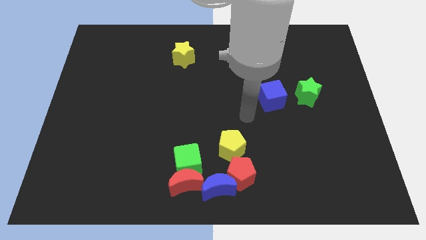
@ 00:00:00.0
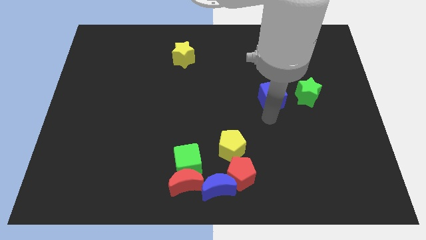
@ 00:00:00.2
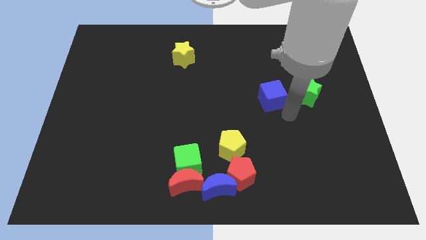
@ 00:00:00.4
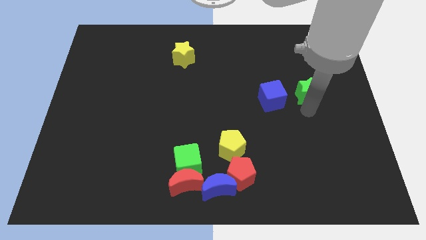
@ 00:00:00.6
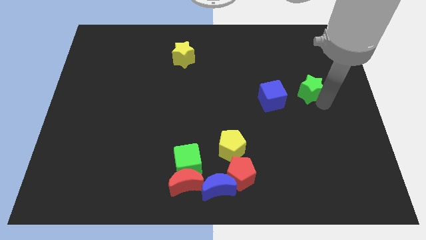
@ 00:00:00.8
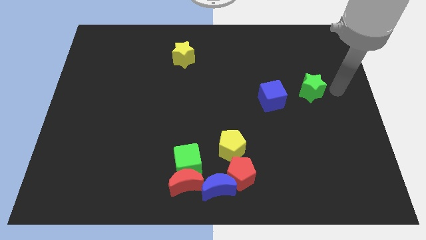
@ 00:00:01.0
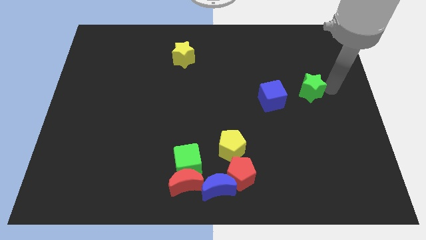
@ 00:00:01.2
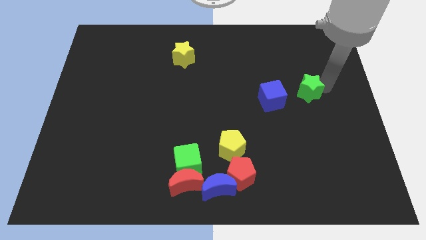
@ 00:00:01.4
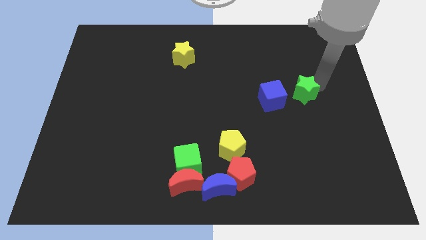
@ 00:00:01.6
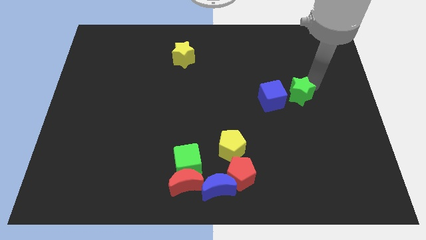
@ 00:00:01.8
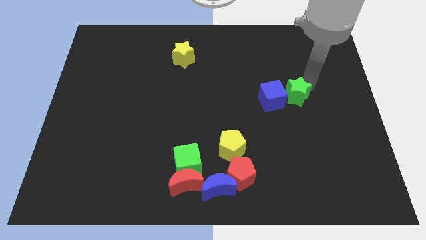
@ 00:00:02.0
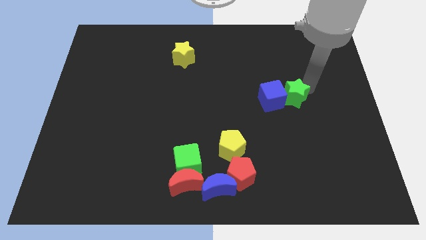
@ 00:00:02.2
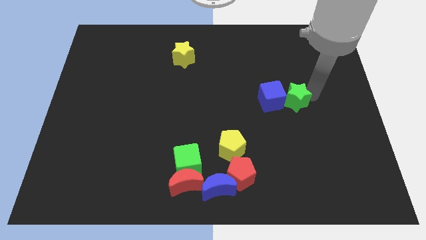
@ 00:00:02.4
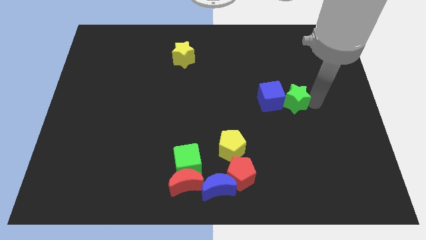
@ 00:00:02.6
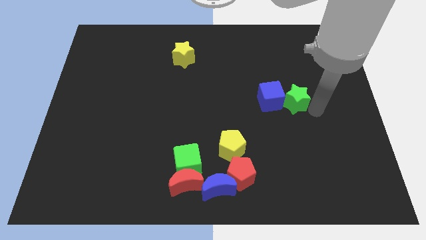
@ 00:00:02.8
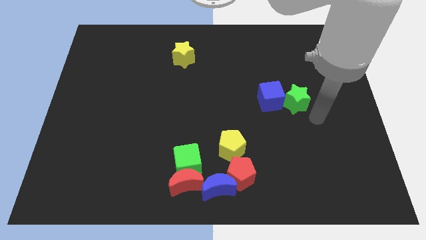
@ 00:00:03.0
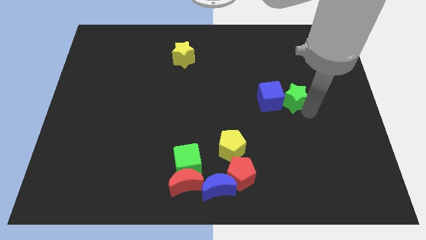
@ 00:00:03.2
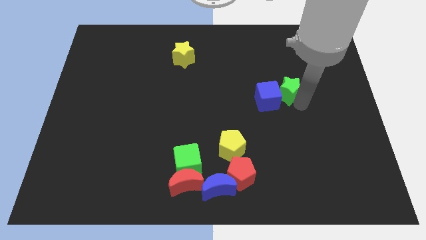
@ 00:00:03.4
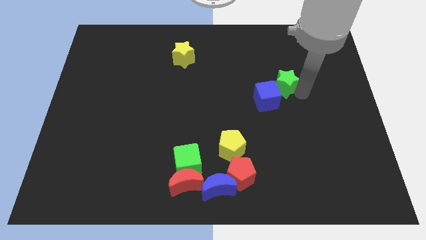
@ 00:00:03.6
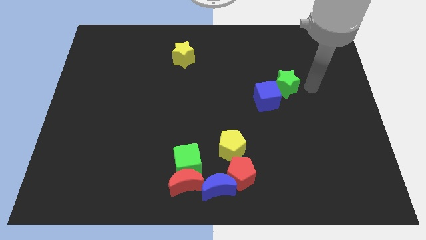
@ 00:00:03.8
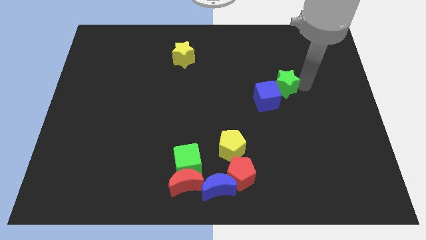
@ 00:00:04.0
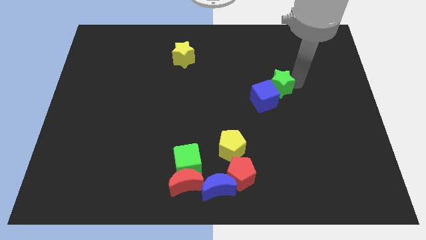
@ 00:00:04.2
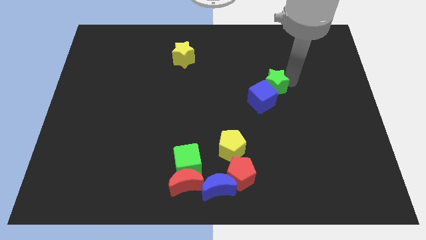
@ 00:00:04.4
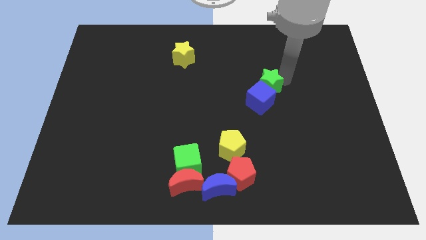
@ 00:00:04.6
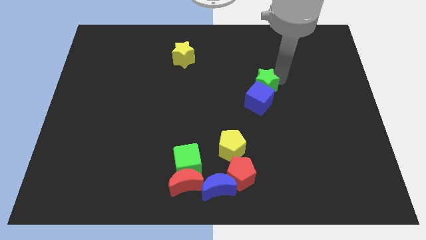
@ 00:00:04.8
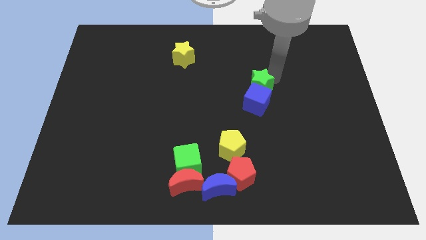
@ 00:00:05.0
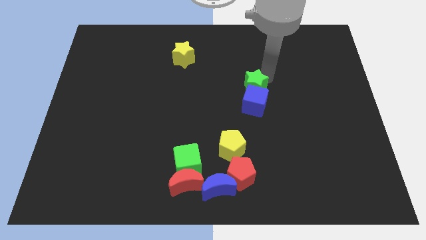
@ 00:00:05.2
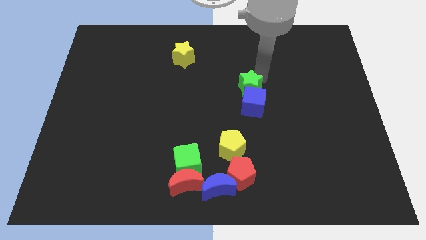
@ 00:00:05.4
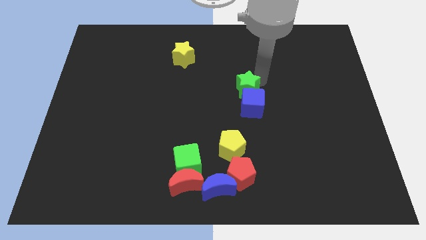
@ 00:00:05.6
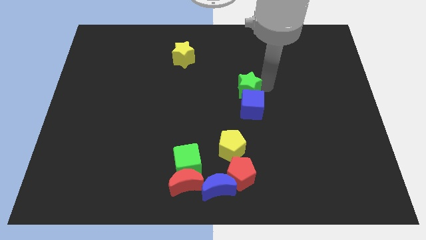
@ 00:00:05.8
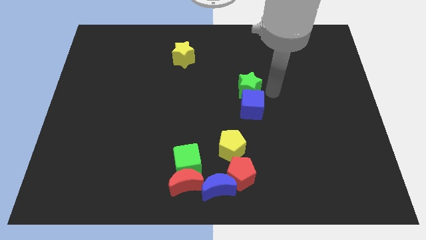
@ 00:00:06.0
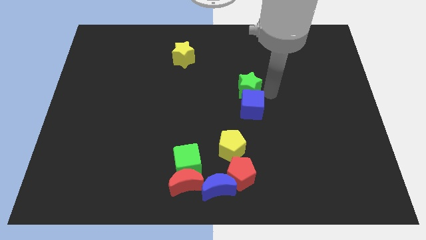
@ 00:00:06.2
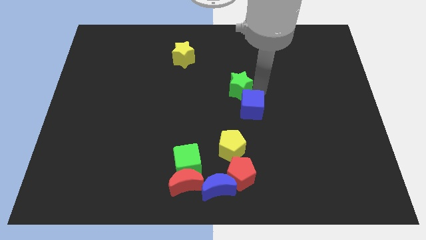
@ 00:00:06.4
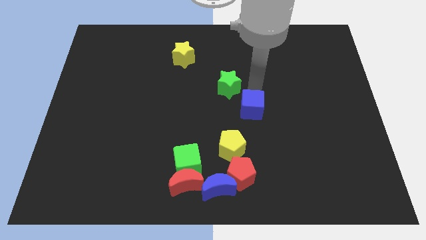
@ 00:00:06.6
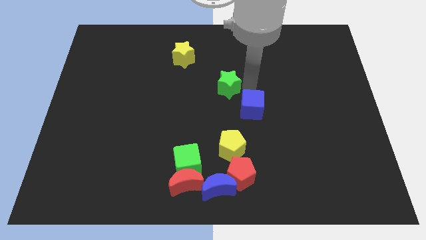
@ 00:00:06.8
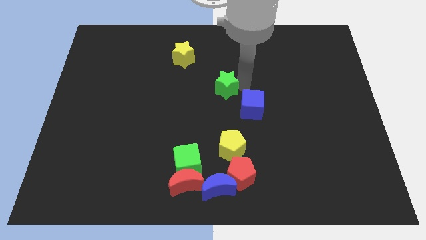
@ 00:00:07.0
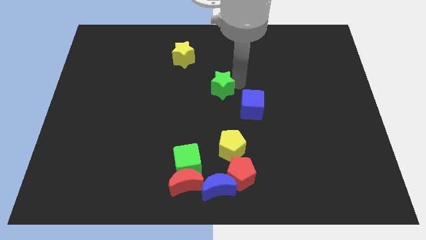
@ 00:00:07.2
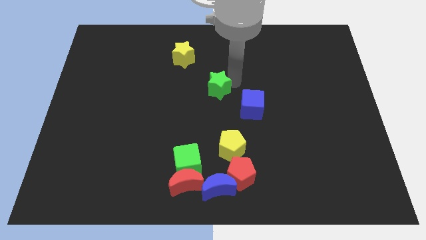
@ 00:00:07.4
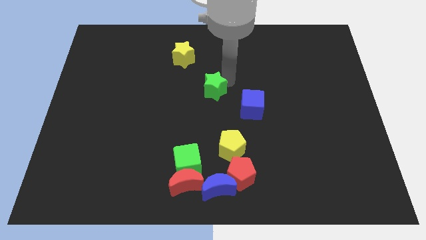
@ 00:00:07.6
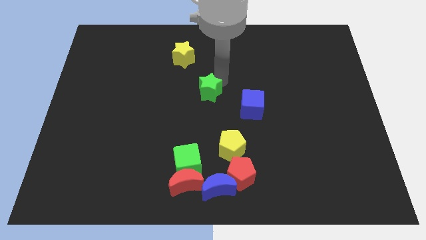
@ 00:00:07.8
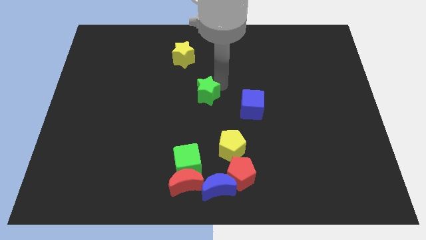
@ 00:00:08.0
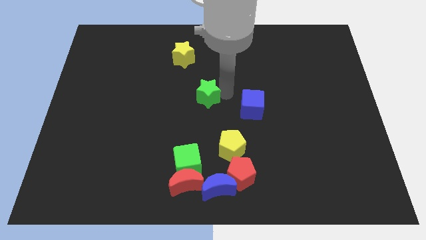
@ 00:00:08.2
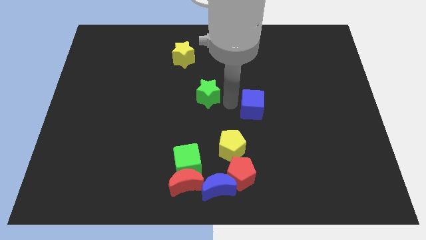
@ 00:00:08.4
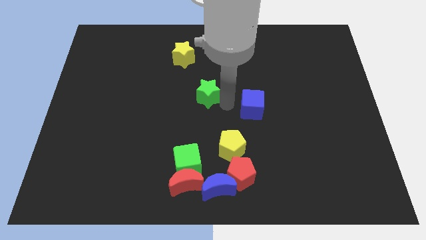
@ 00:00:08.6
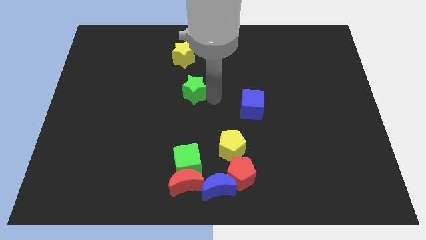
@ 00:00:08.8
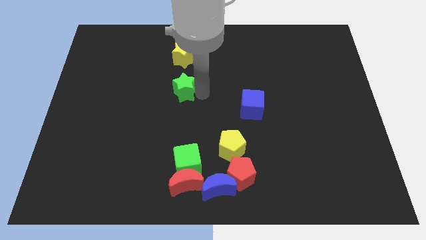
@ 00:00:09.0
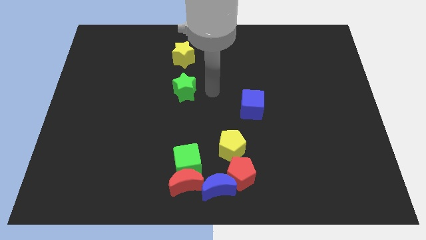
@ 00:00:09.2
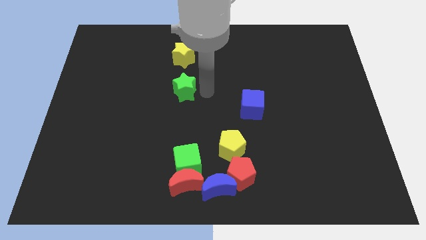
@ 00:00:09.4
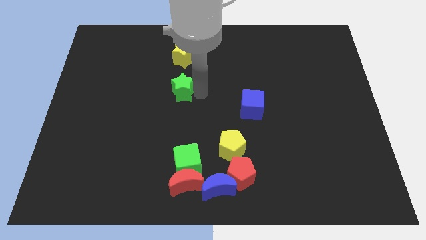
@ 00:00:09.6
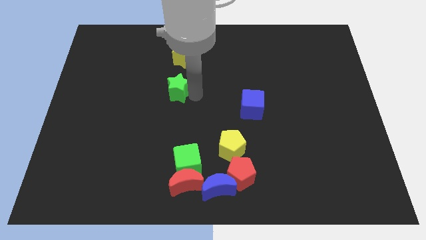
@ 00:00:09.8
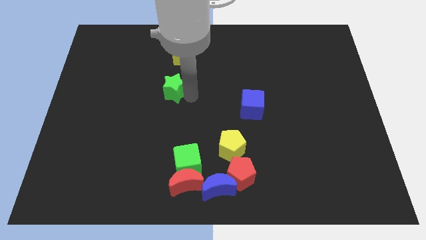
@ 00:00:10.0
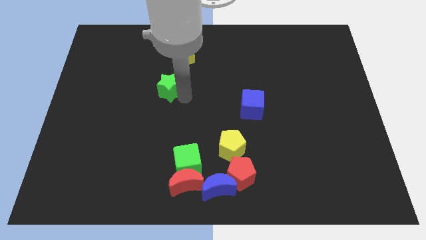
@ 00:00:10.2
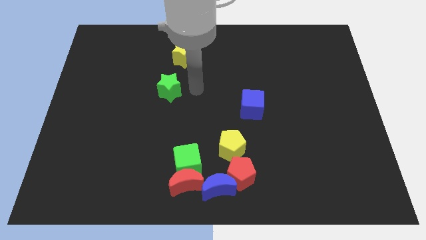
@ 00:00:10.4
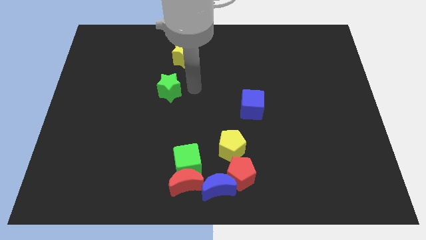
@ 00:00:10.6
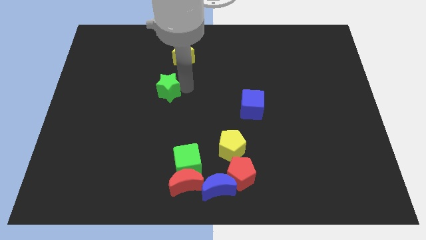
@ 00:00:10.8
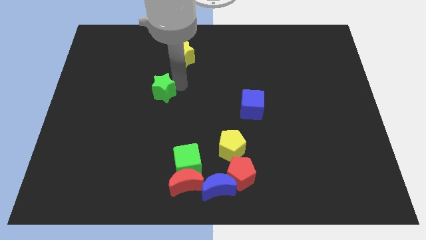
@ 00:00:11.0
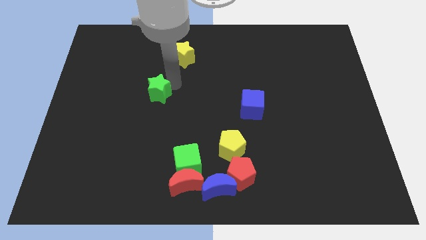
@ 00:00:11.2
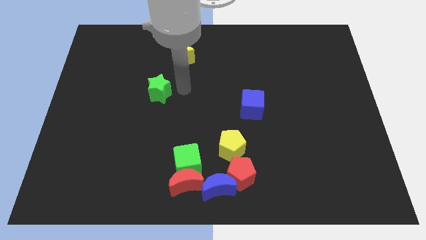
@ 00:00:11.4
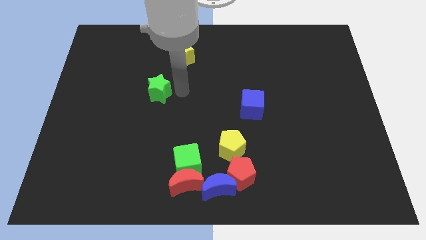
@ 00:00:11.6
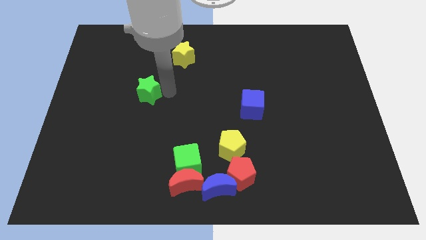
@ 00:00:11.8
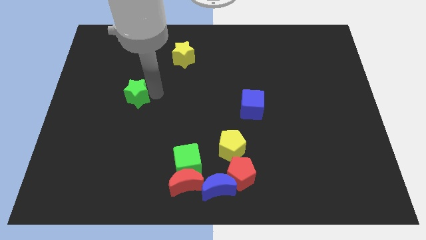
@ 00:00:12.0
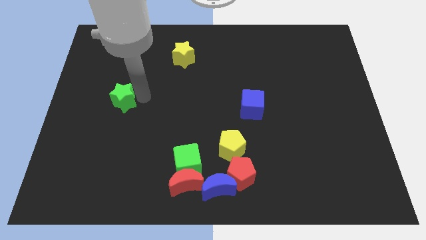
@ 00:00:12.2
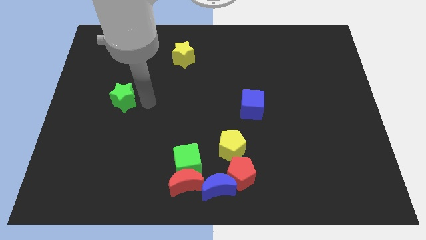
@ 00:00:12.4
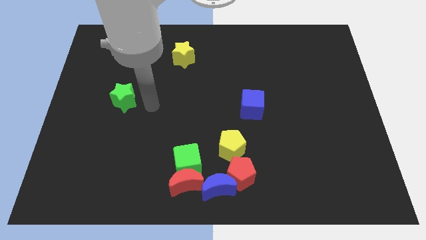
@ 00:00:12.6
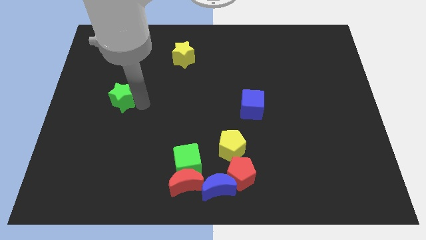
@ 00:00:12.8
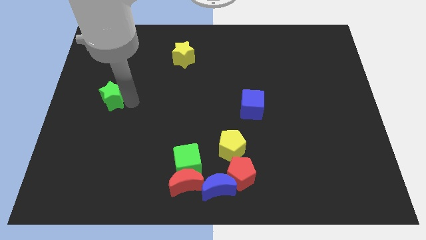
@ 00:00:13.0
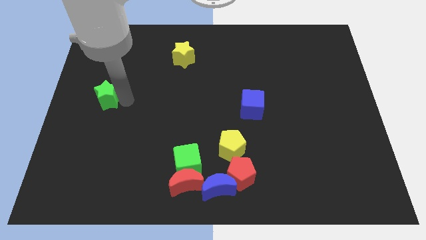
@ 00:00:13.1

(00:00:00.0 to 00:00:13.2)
slide the green star to the left side

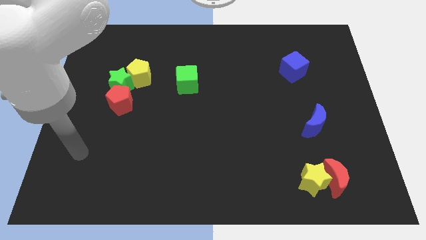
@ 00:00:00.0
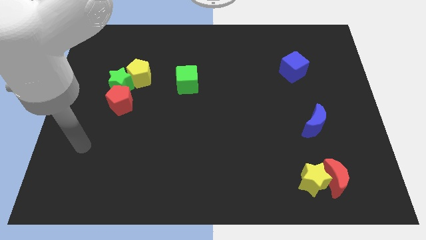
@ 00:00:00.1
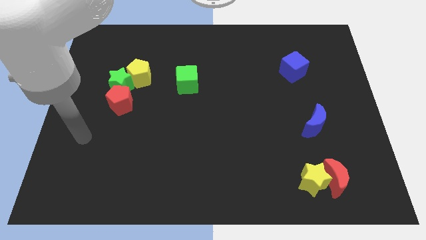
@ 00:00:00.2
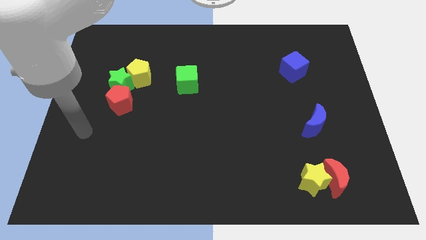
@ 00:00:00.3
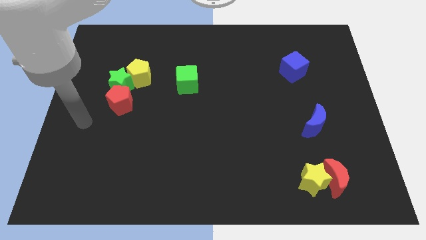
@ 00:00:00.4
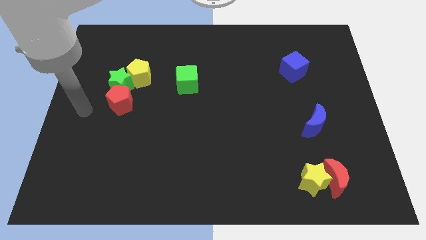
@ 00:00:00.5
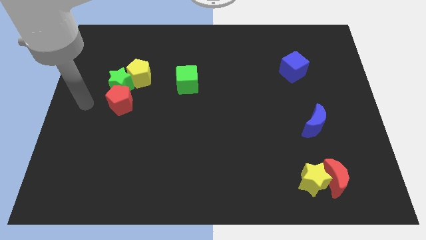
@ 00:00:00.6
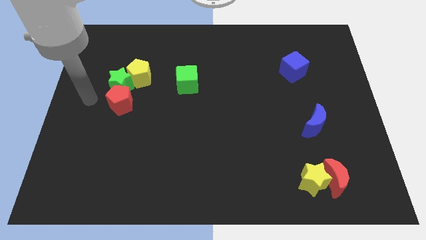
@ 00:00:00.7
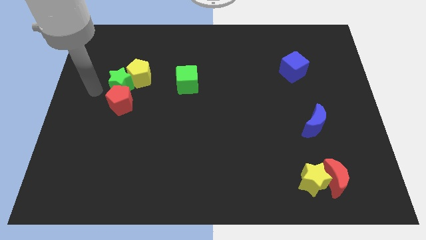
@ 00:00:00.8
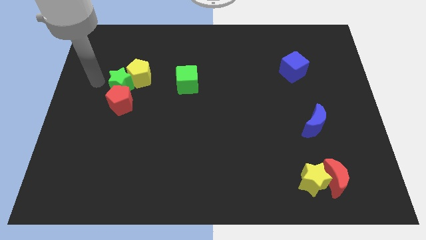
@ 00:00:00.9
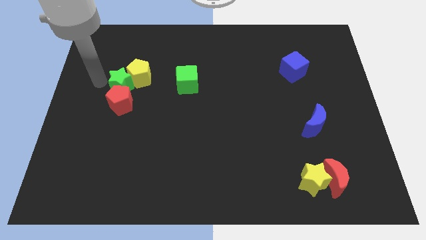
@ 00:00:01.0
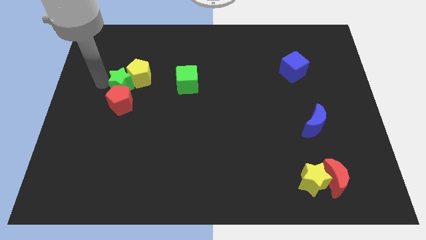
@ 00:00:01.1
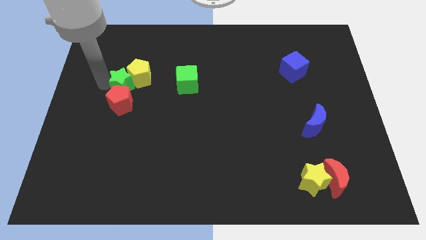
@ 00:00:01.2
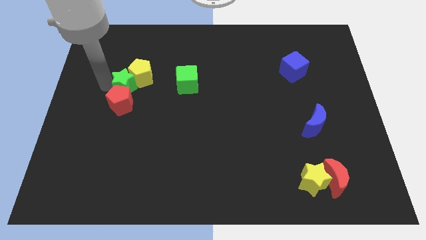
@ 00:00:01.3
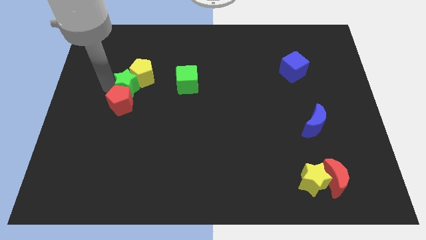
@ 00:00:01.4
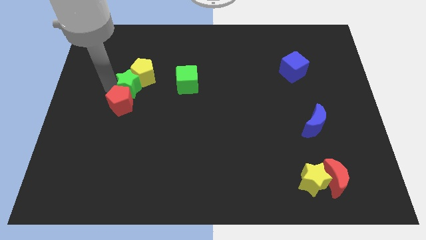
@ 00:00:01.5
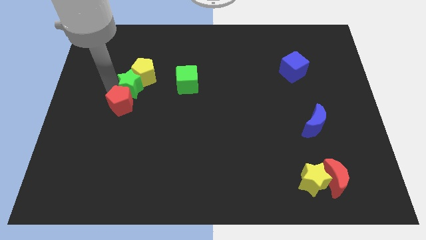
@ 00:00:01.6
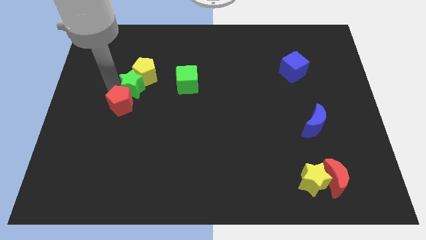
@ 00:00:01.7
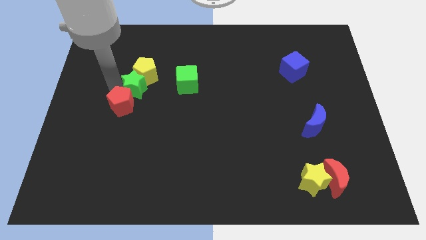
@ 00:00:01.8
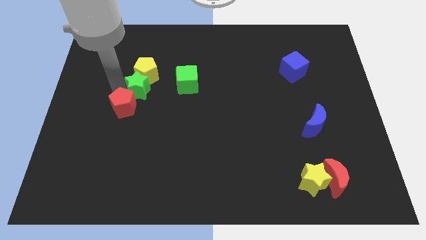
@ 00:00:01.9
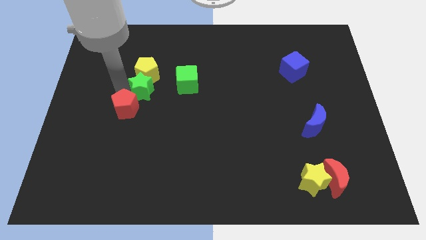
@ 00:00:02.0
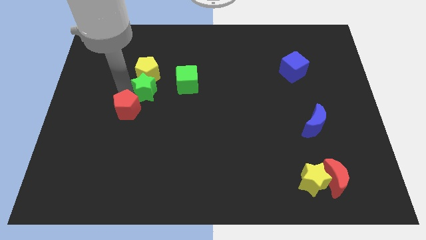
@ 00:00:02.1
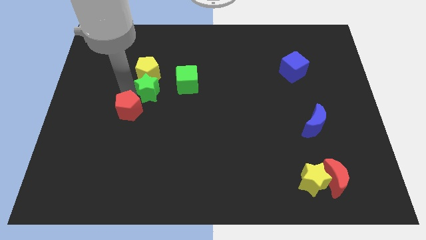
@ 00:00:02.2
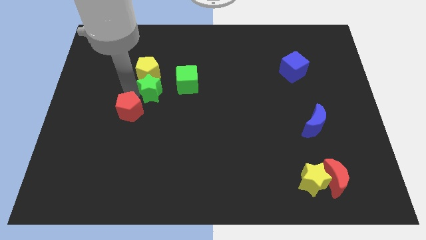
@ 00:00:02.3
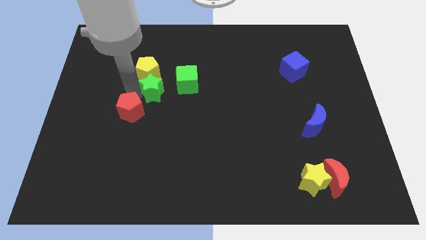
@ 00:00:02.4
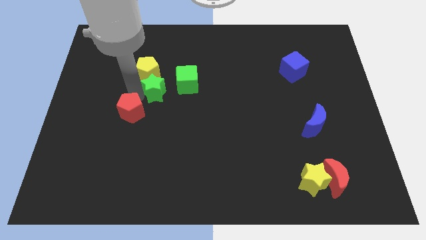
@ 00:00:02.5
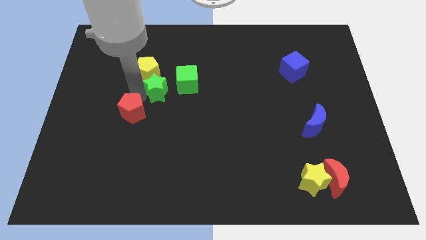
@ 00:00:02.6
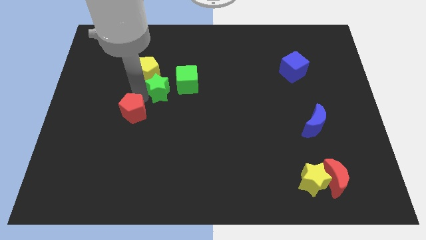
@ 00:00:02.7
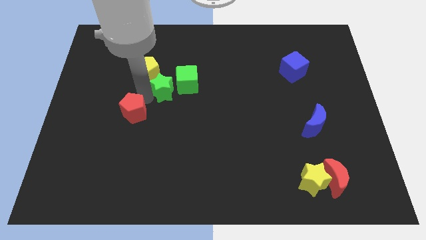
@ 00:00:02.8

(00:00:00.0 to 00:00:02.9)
slide the green star to the middle
